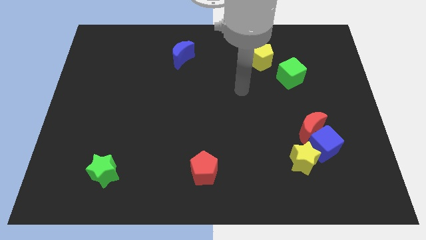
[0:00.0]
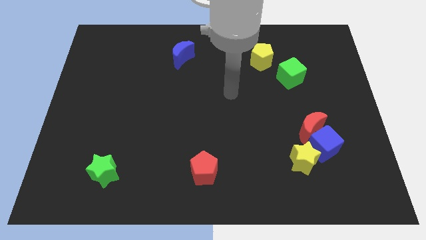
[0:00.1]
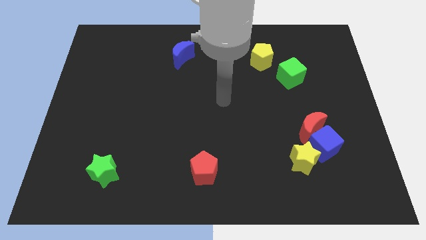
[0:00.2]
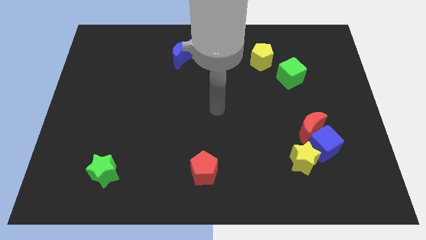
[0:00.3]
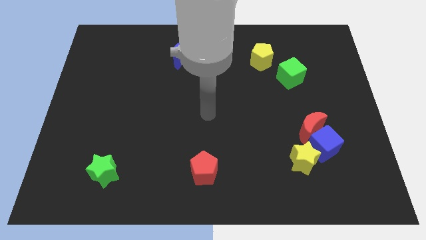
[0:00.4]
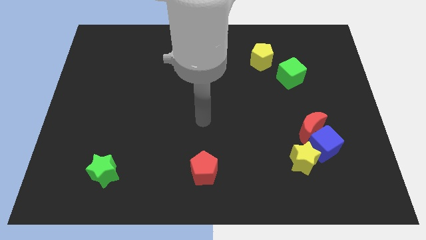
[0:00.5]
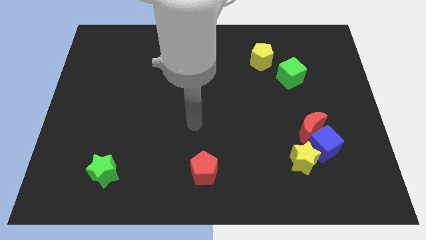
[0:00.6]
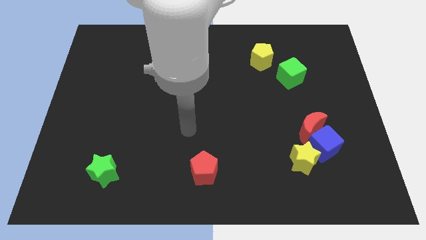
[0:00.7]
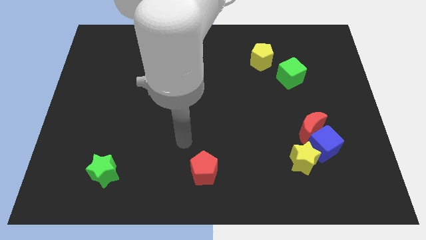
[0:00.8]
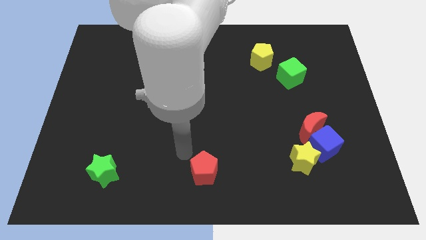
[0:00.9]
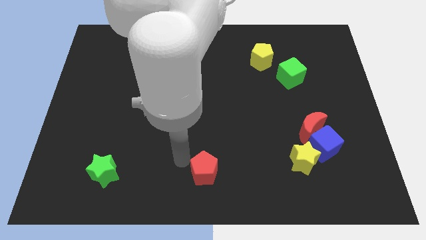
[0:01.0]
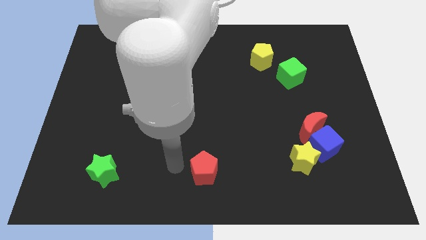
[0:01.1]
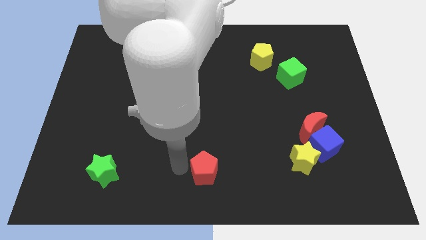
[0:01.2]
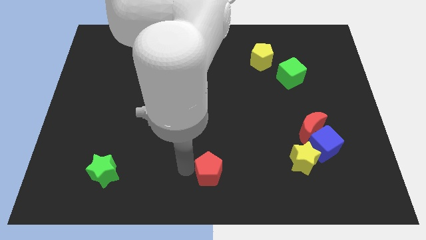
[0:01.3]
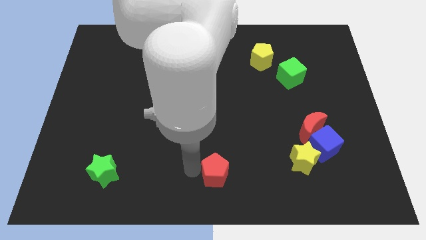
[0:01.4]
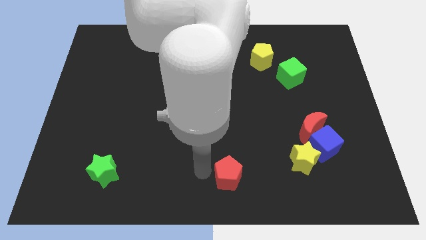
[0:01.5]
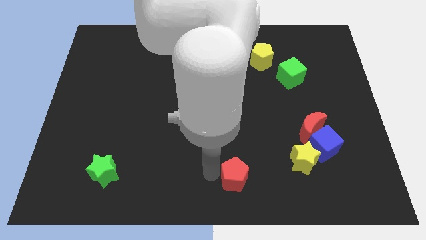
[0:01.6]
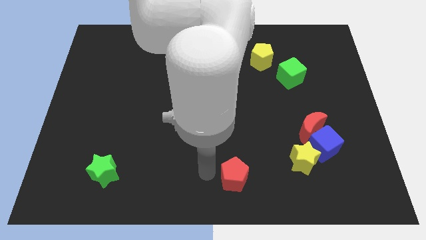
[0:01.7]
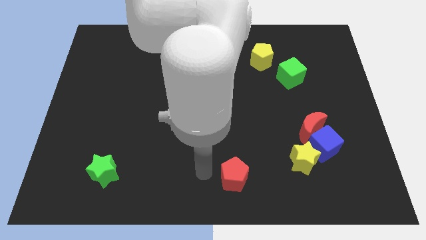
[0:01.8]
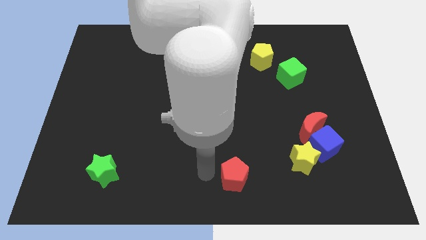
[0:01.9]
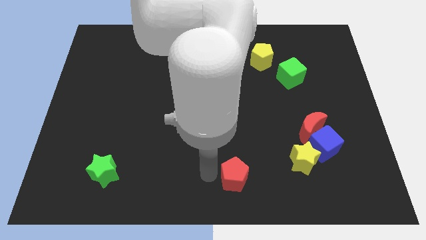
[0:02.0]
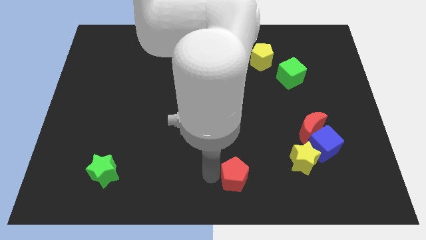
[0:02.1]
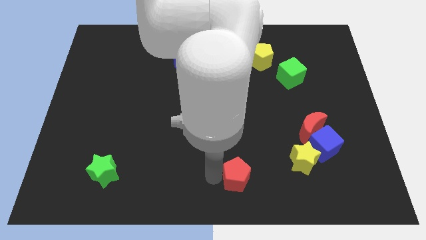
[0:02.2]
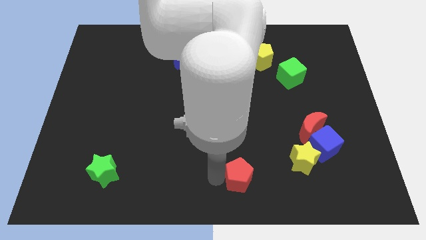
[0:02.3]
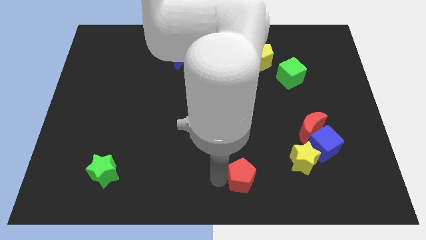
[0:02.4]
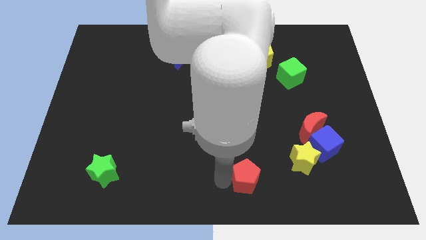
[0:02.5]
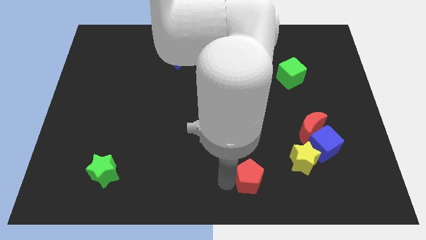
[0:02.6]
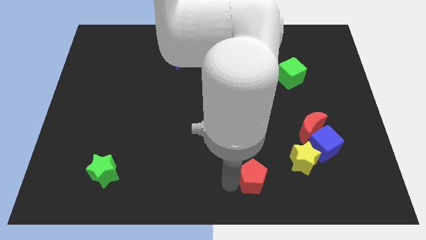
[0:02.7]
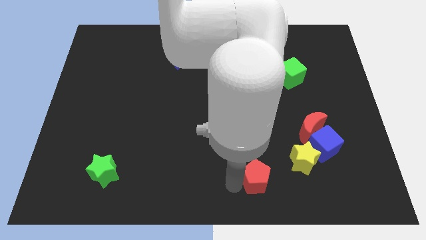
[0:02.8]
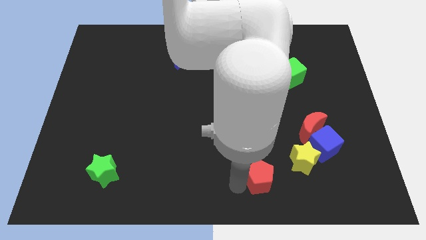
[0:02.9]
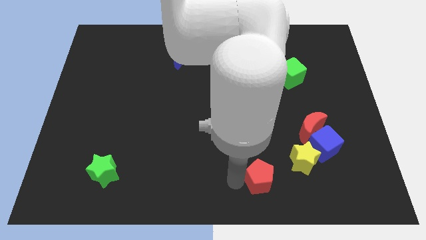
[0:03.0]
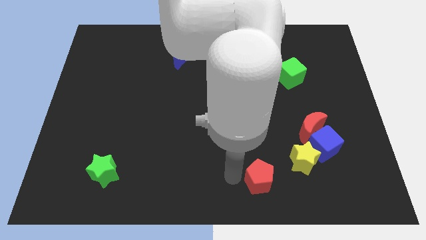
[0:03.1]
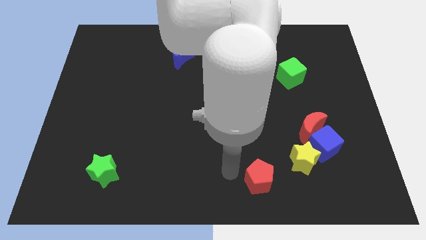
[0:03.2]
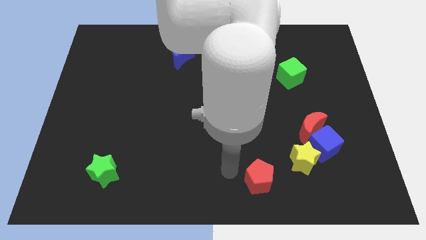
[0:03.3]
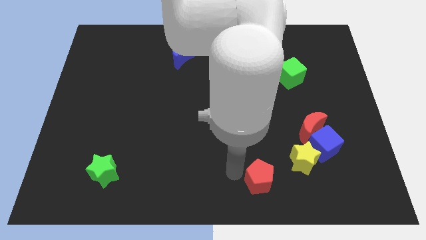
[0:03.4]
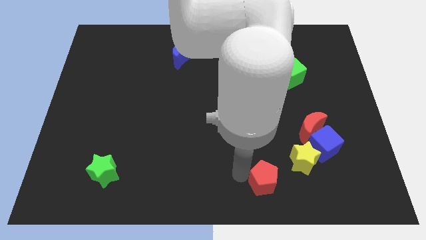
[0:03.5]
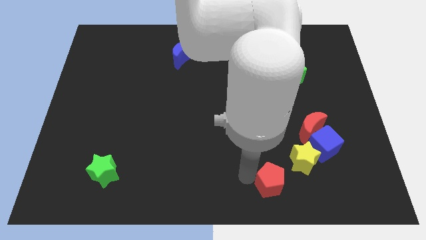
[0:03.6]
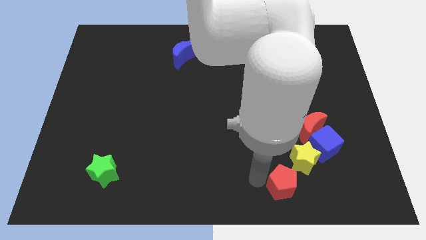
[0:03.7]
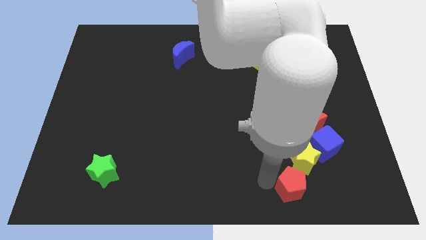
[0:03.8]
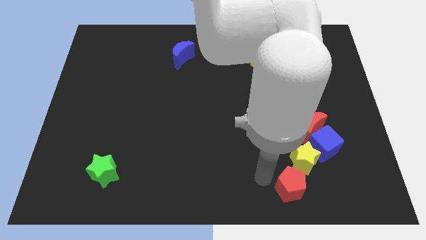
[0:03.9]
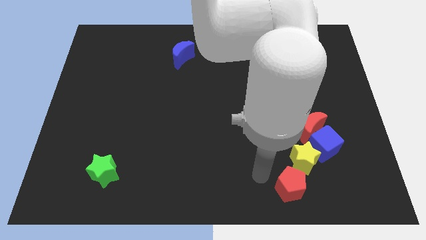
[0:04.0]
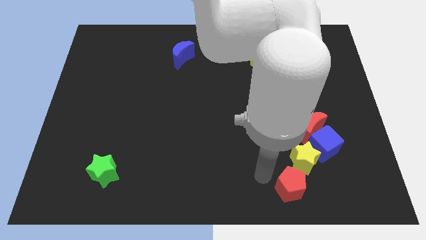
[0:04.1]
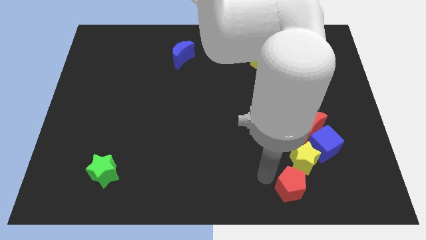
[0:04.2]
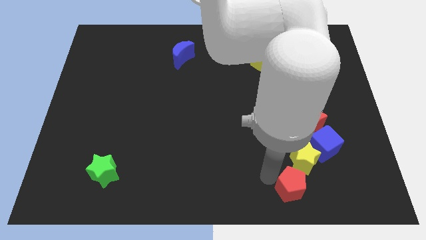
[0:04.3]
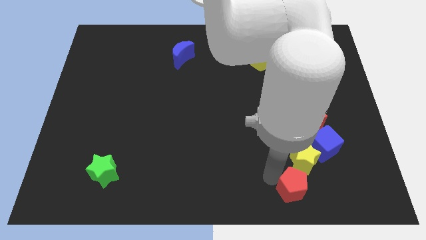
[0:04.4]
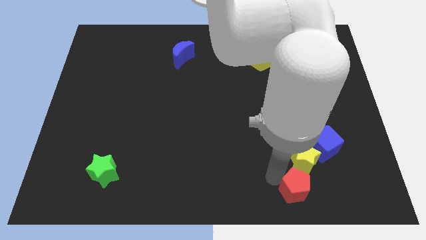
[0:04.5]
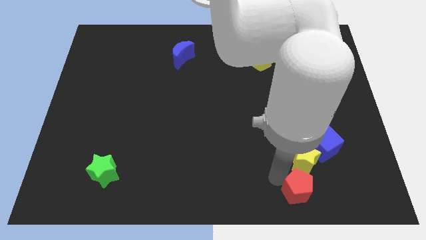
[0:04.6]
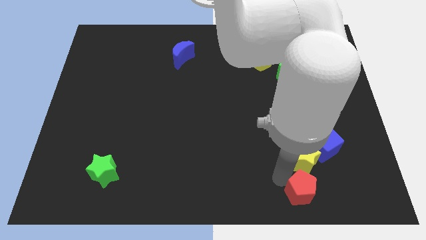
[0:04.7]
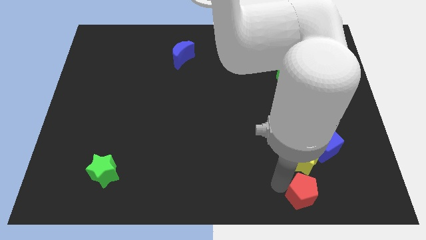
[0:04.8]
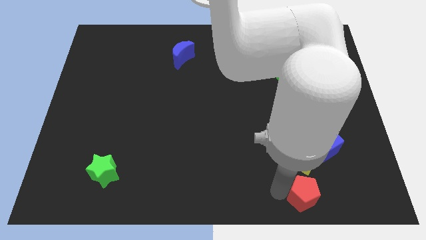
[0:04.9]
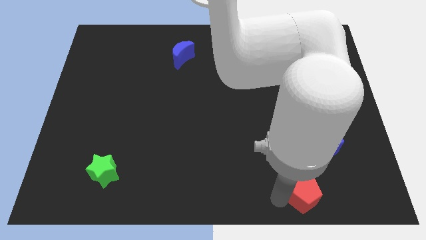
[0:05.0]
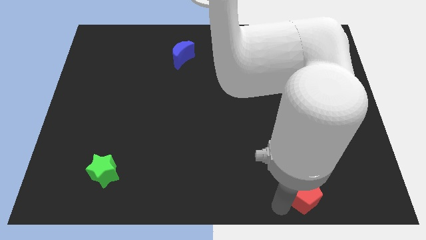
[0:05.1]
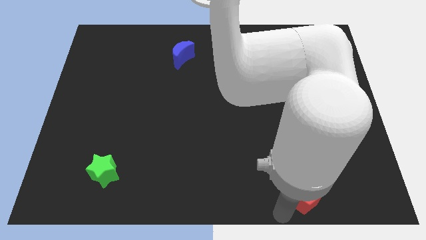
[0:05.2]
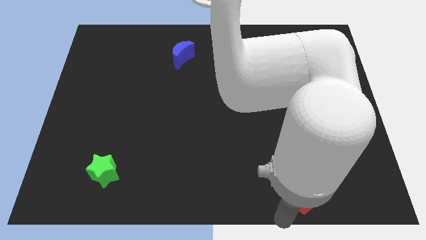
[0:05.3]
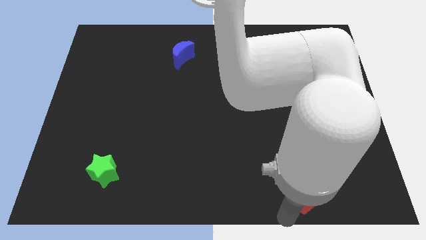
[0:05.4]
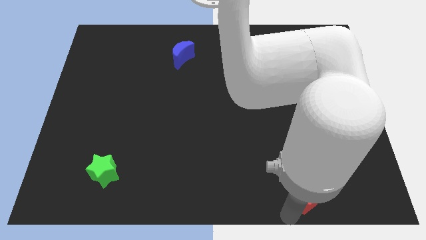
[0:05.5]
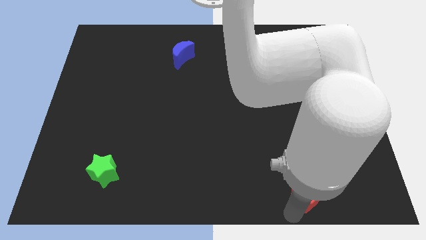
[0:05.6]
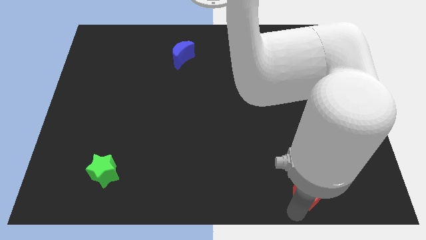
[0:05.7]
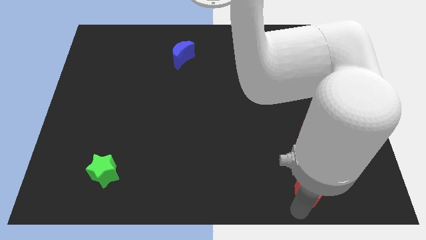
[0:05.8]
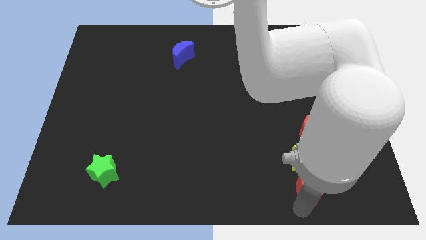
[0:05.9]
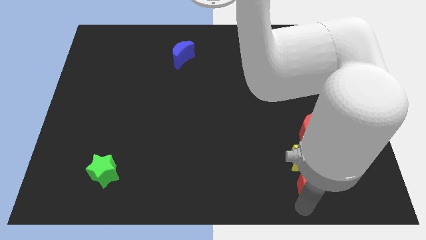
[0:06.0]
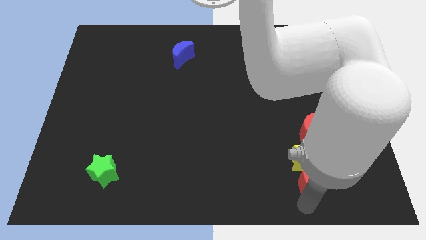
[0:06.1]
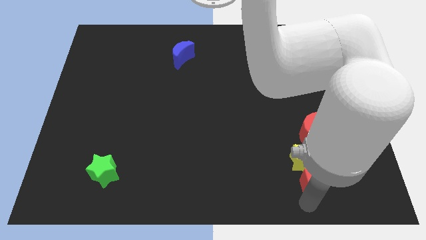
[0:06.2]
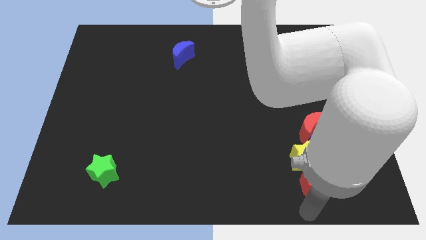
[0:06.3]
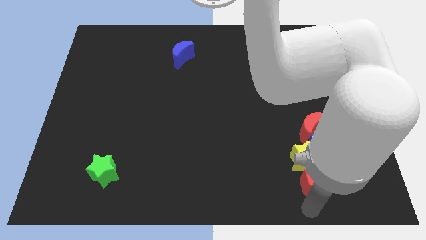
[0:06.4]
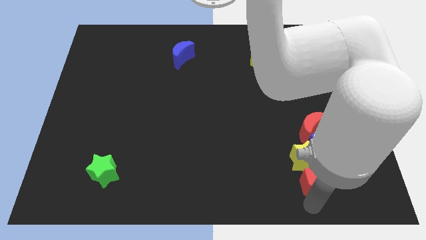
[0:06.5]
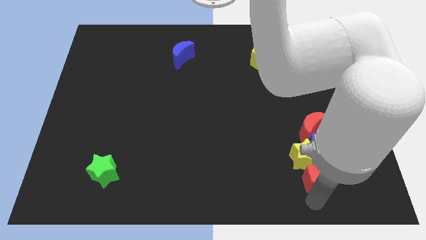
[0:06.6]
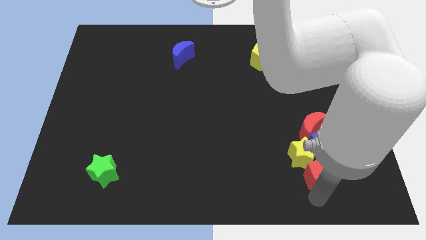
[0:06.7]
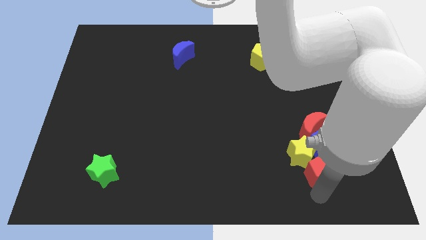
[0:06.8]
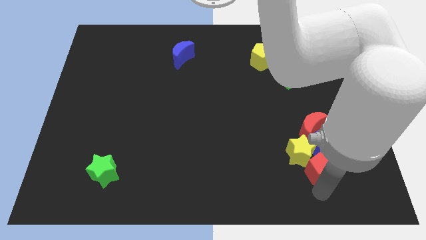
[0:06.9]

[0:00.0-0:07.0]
put the red pentagon next to the blue cube

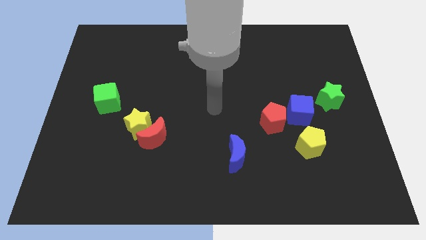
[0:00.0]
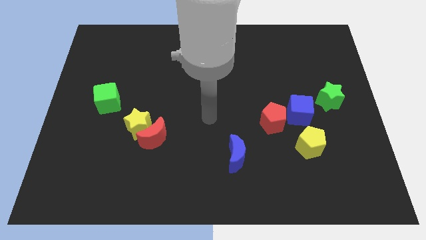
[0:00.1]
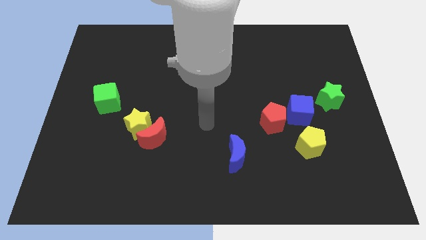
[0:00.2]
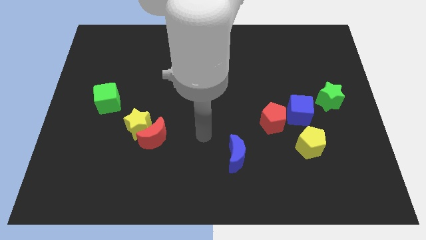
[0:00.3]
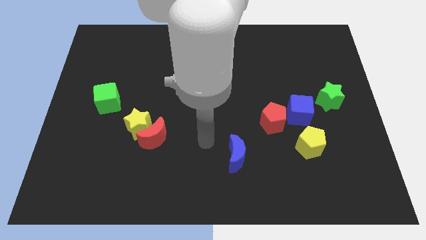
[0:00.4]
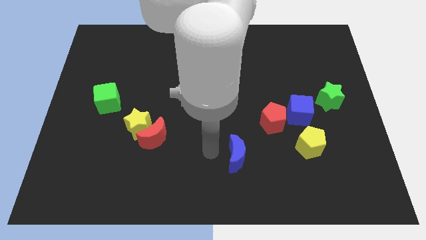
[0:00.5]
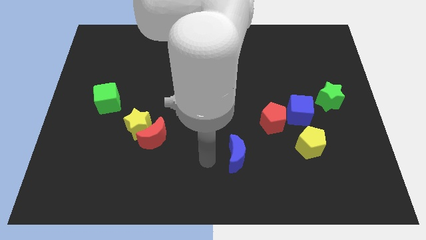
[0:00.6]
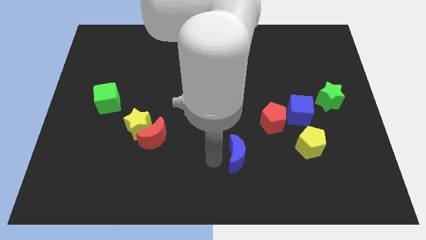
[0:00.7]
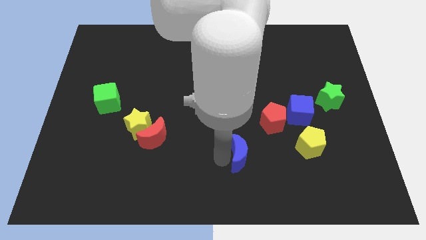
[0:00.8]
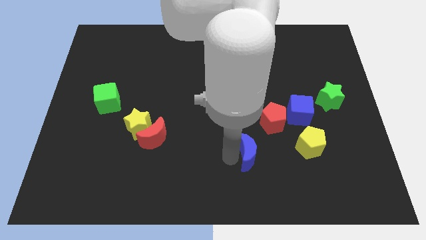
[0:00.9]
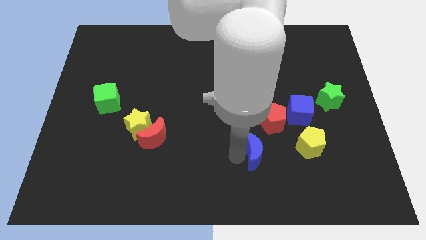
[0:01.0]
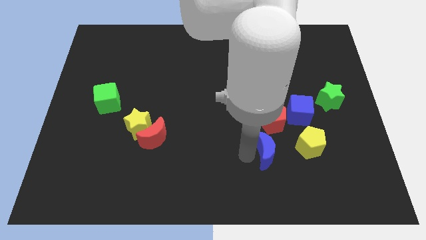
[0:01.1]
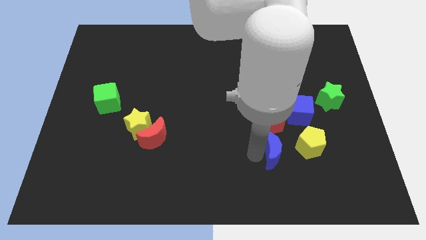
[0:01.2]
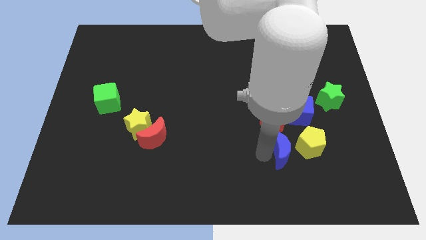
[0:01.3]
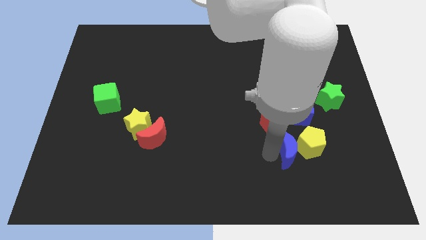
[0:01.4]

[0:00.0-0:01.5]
slide the blue moon towards the yellow pentagon
